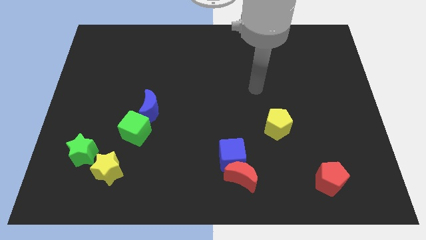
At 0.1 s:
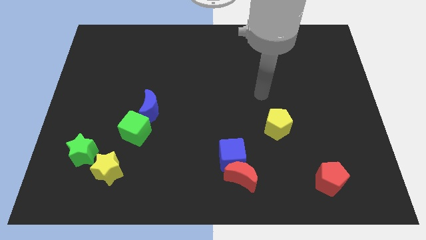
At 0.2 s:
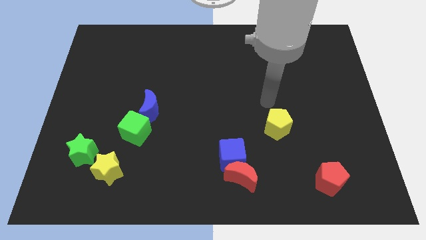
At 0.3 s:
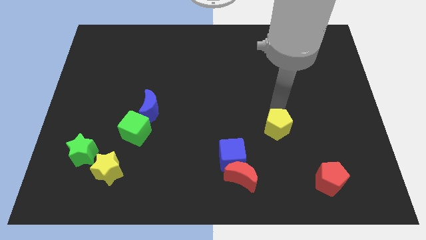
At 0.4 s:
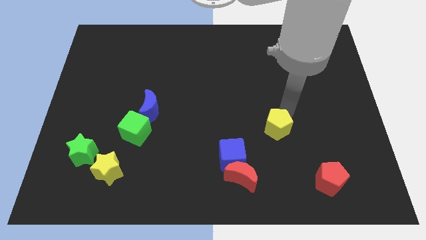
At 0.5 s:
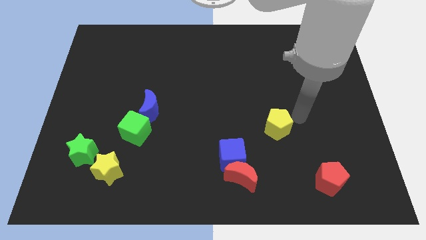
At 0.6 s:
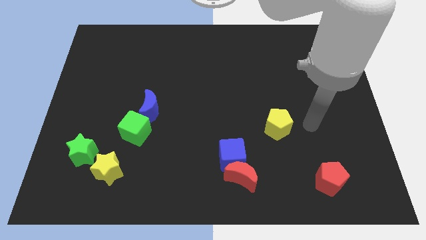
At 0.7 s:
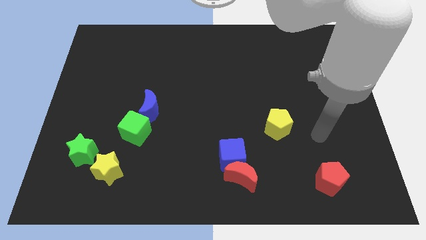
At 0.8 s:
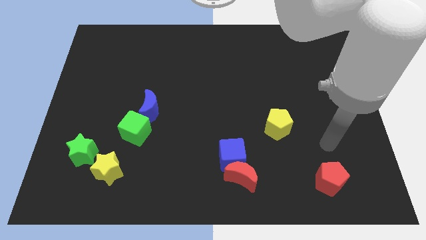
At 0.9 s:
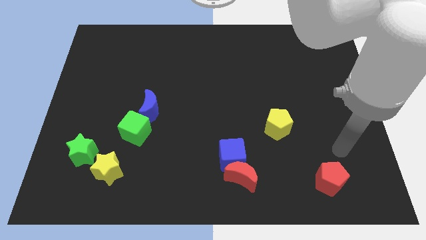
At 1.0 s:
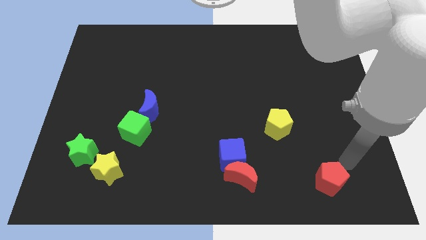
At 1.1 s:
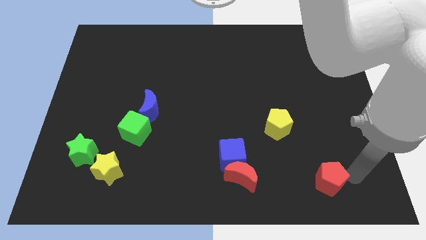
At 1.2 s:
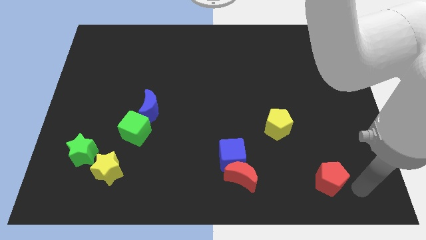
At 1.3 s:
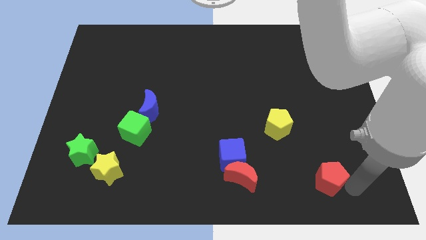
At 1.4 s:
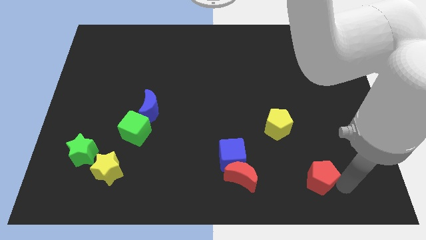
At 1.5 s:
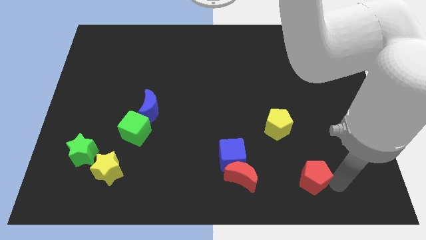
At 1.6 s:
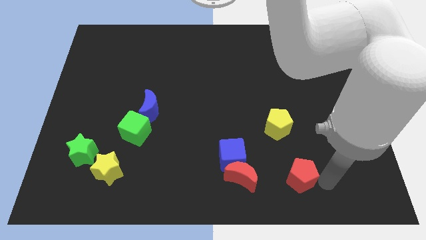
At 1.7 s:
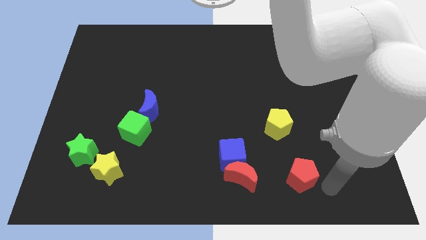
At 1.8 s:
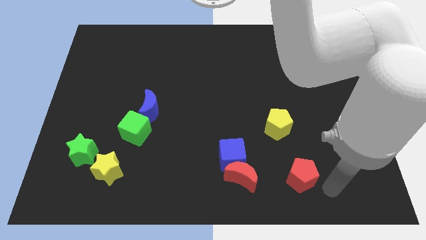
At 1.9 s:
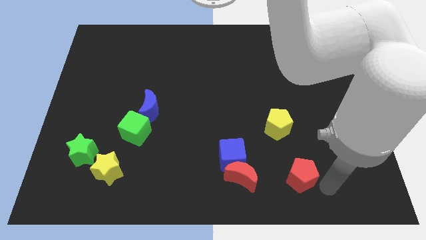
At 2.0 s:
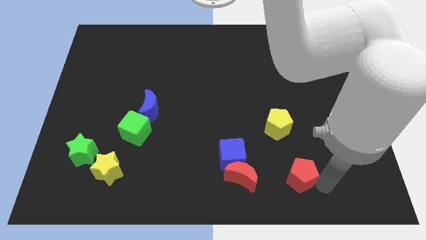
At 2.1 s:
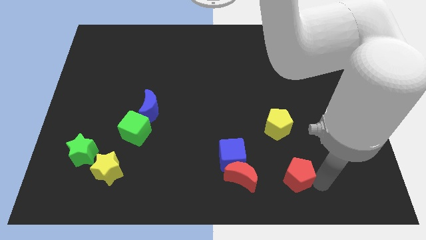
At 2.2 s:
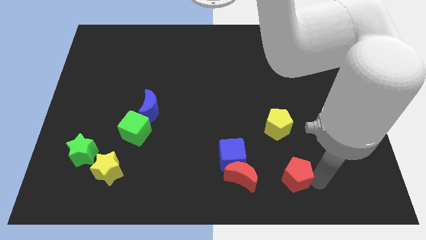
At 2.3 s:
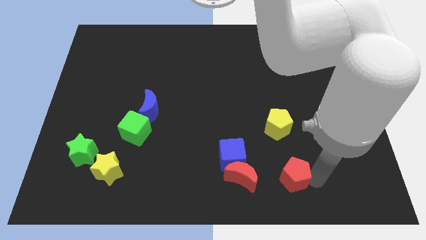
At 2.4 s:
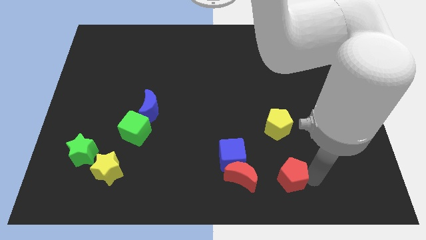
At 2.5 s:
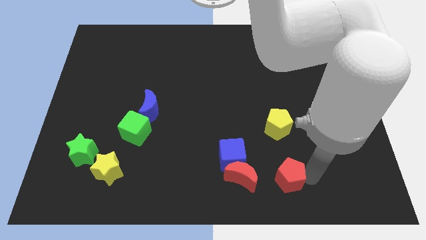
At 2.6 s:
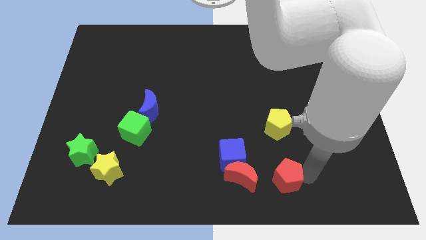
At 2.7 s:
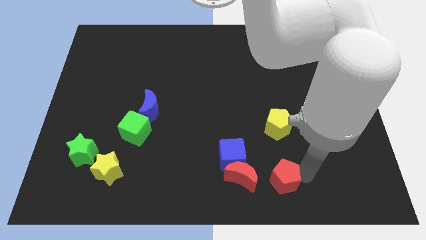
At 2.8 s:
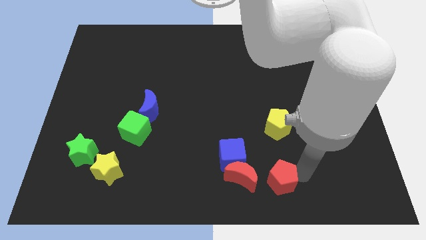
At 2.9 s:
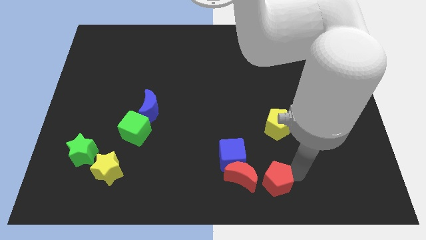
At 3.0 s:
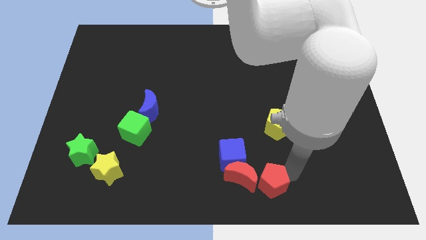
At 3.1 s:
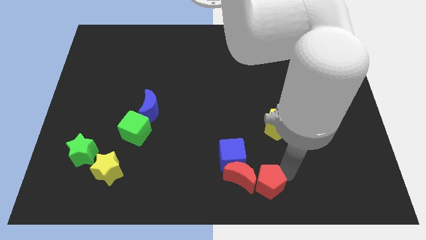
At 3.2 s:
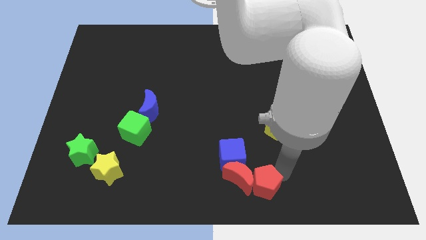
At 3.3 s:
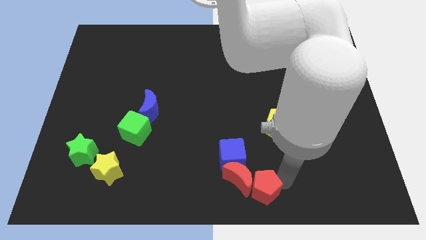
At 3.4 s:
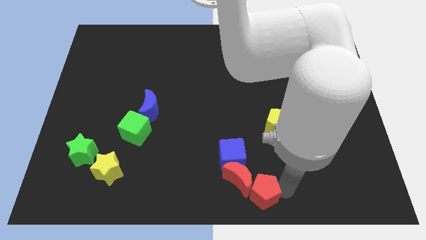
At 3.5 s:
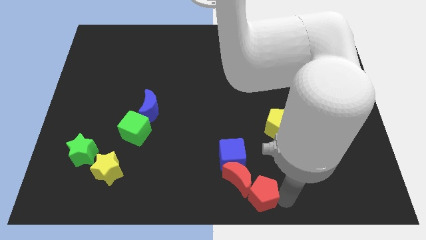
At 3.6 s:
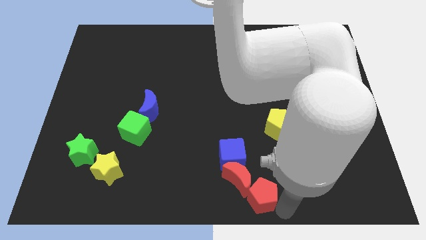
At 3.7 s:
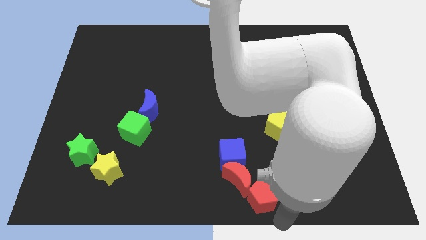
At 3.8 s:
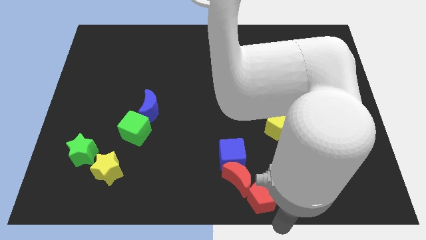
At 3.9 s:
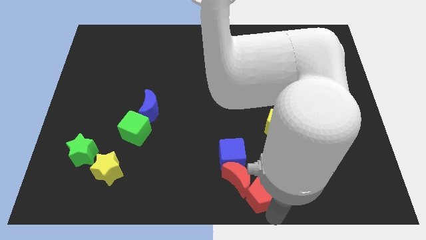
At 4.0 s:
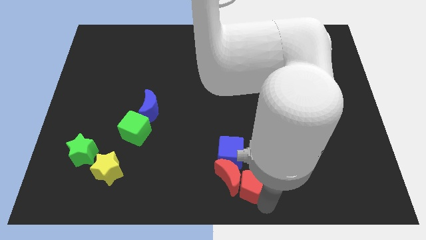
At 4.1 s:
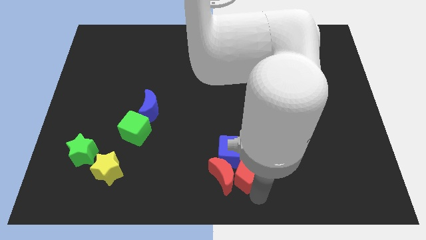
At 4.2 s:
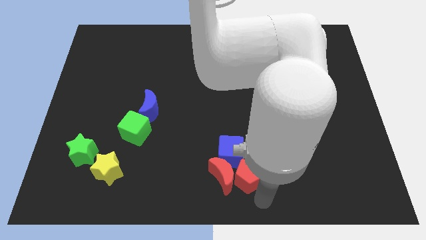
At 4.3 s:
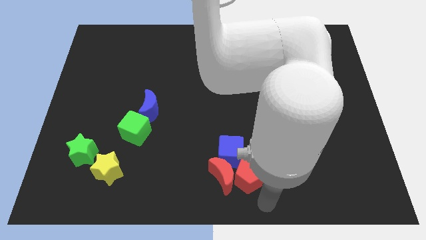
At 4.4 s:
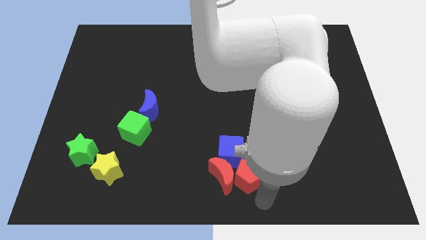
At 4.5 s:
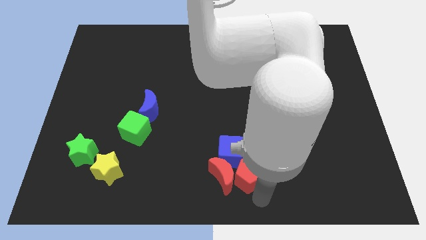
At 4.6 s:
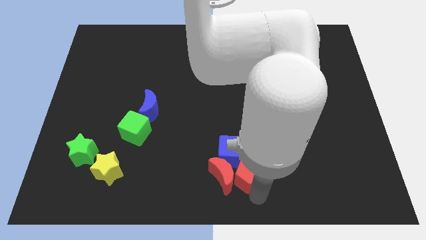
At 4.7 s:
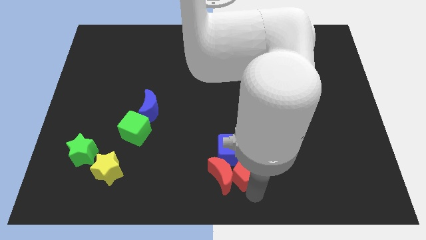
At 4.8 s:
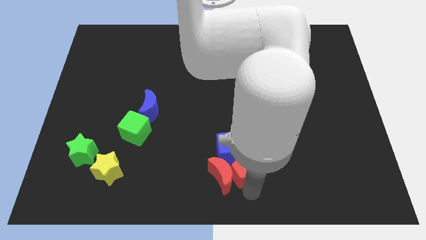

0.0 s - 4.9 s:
put the red pentagon towards the blue cube

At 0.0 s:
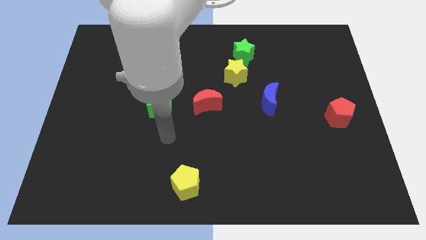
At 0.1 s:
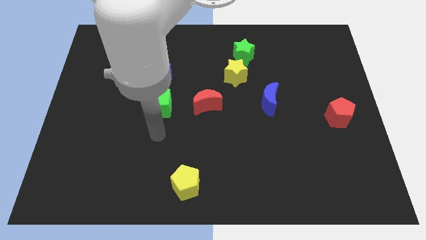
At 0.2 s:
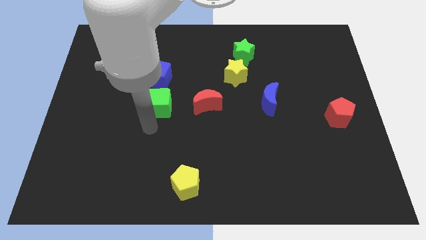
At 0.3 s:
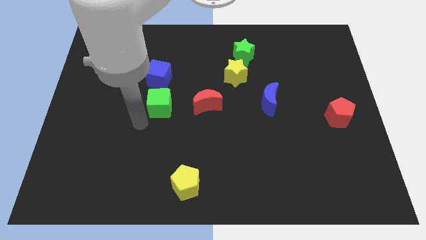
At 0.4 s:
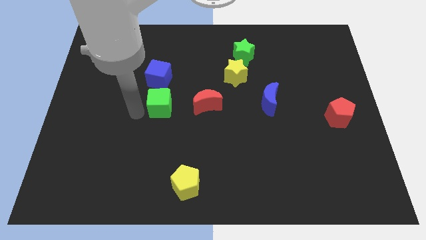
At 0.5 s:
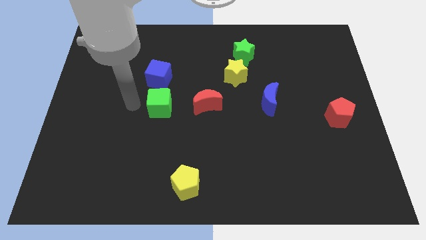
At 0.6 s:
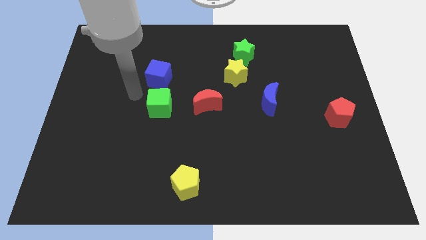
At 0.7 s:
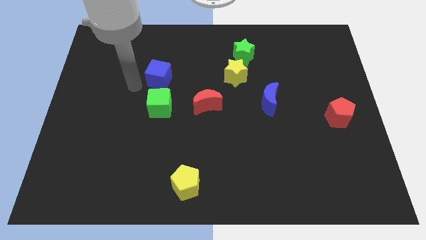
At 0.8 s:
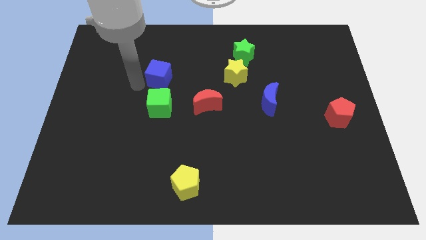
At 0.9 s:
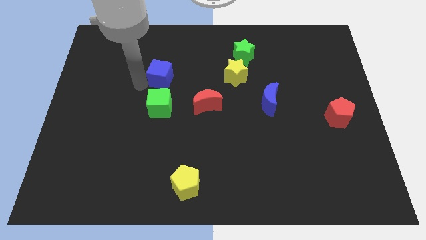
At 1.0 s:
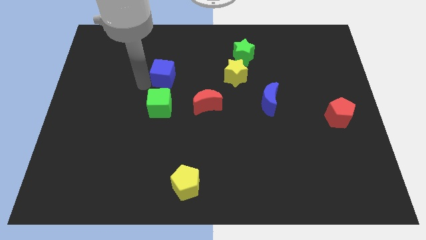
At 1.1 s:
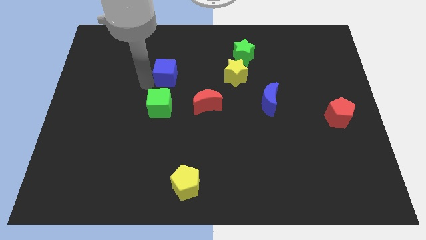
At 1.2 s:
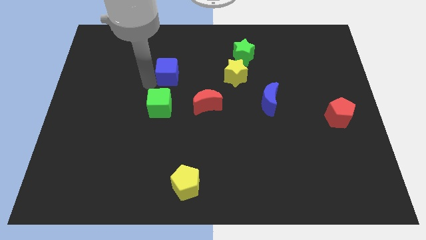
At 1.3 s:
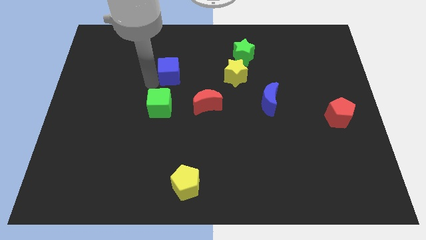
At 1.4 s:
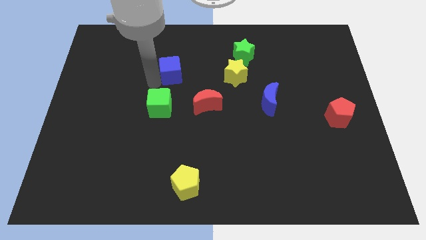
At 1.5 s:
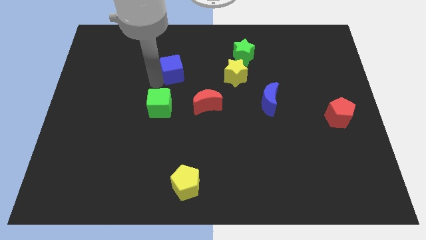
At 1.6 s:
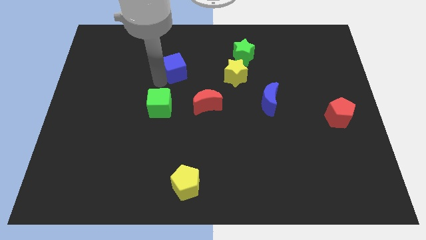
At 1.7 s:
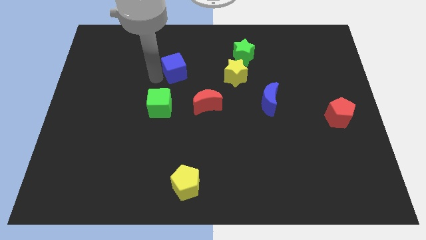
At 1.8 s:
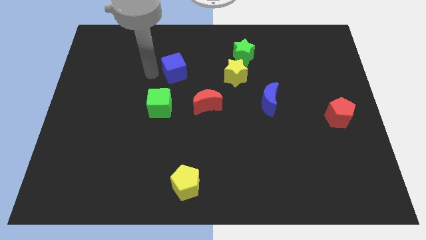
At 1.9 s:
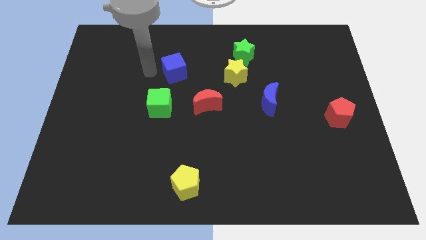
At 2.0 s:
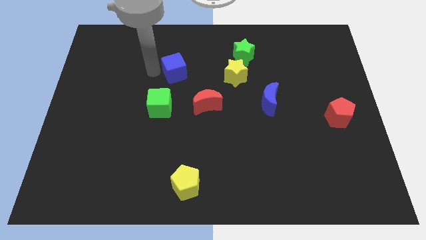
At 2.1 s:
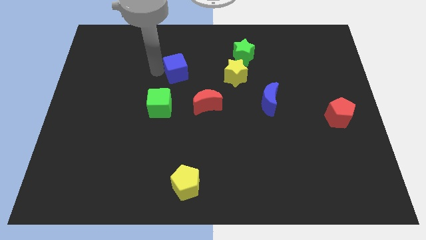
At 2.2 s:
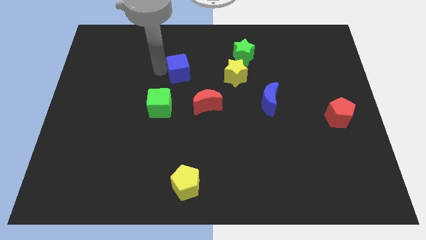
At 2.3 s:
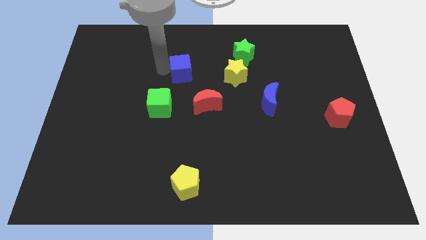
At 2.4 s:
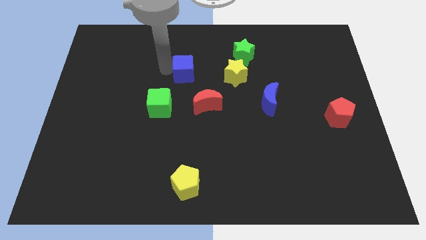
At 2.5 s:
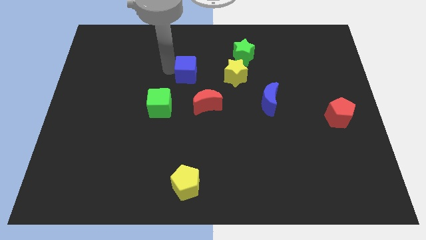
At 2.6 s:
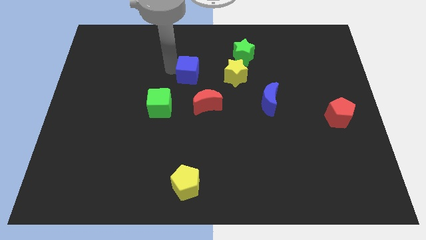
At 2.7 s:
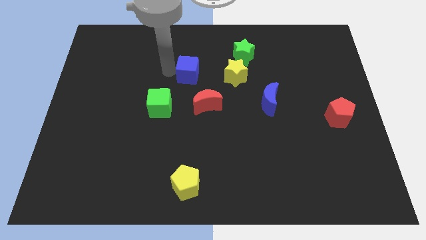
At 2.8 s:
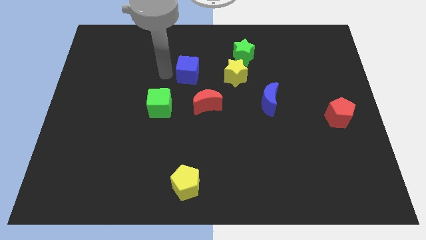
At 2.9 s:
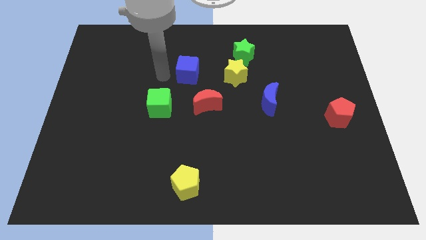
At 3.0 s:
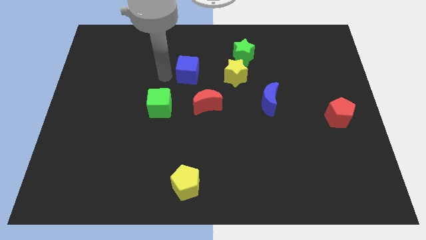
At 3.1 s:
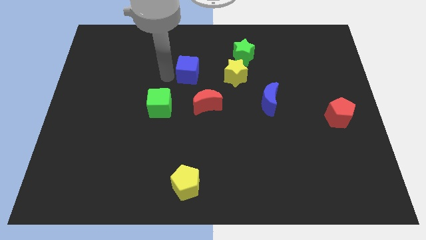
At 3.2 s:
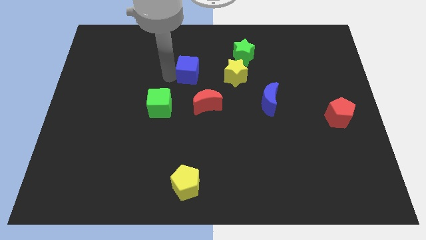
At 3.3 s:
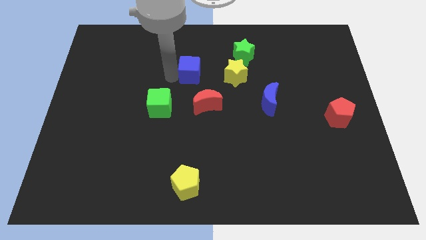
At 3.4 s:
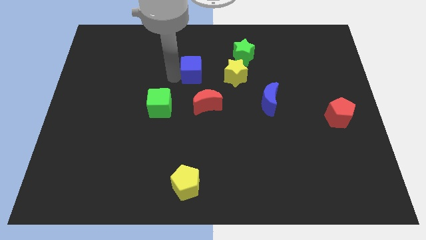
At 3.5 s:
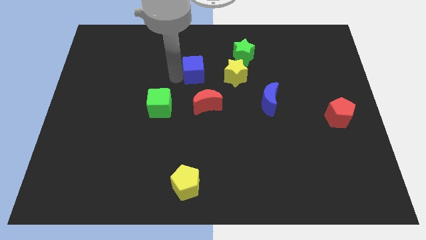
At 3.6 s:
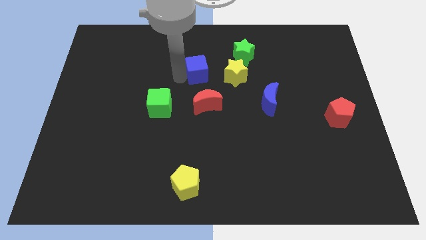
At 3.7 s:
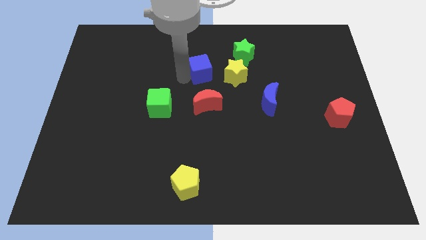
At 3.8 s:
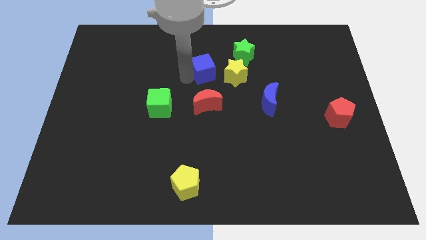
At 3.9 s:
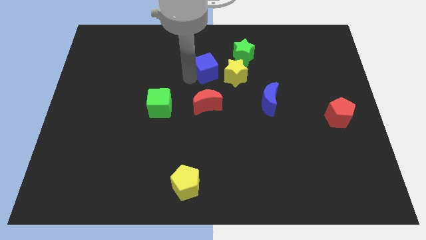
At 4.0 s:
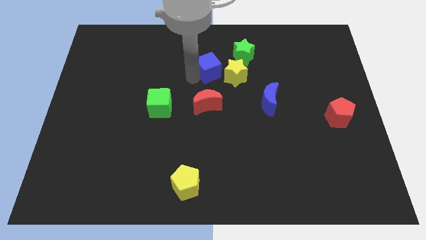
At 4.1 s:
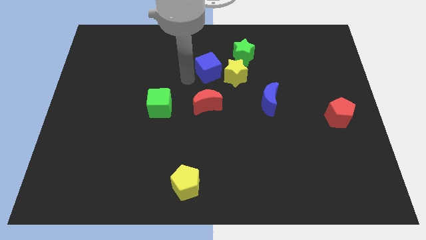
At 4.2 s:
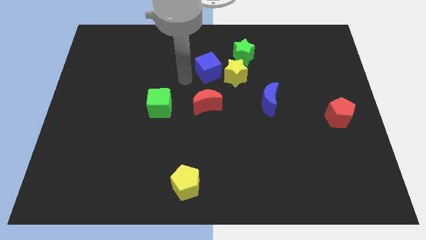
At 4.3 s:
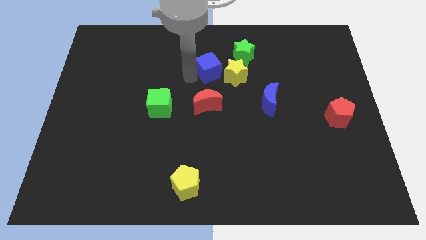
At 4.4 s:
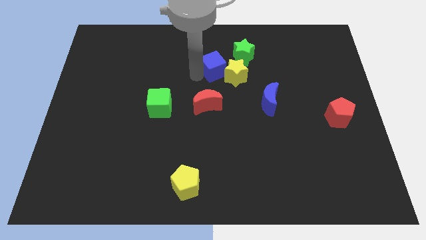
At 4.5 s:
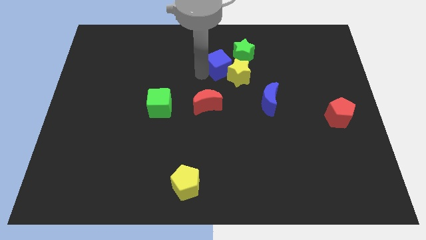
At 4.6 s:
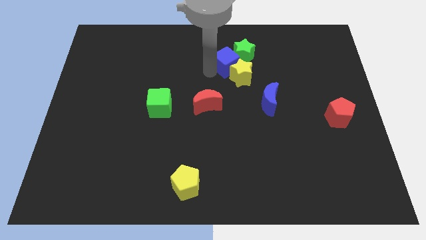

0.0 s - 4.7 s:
push the blue cube next to the green star
